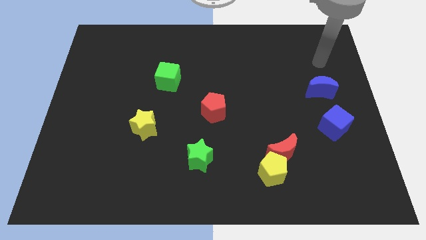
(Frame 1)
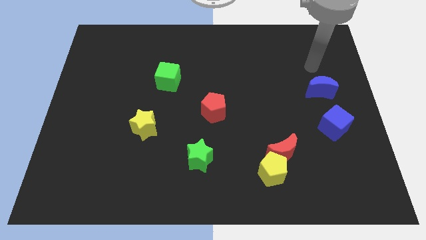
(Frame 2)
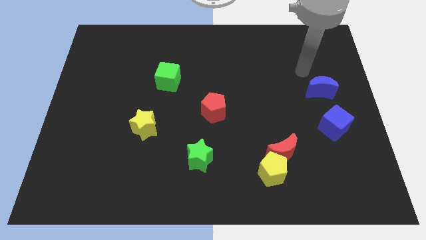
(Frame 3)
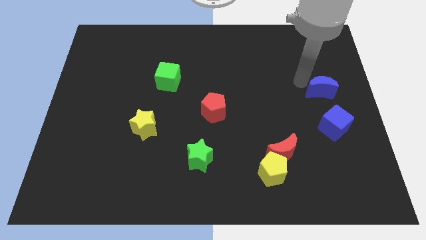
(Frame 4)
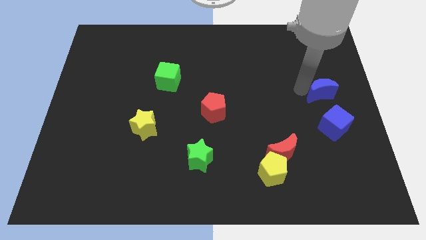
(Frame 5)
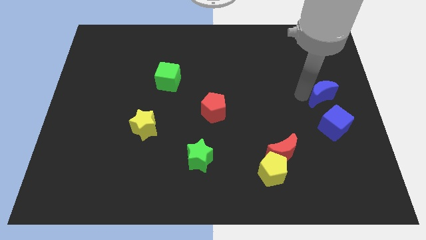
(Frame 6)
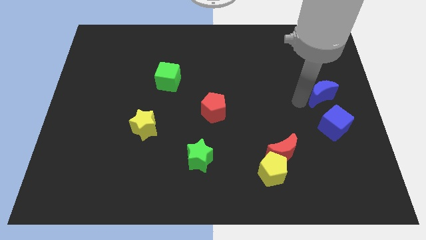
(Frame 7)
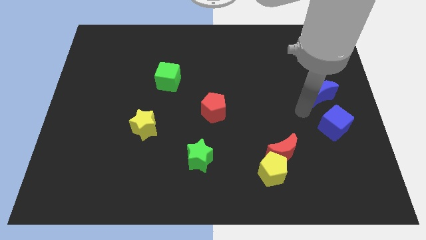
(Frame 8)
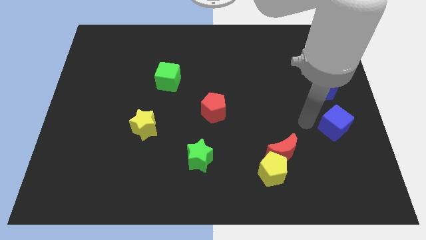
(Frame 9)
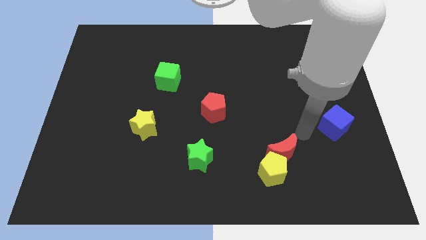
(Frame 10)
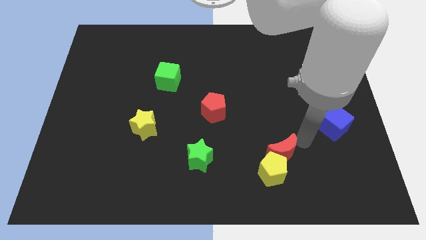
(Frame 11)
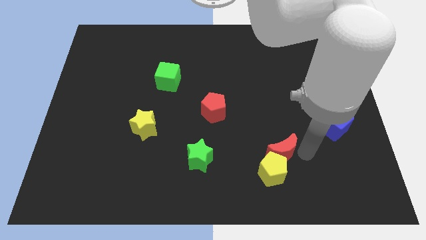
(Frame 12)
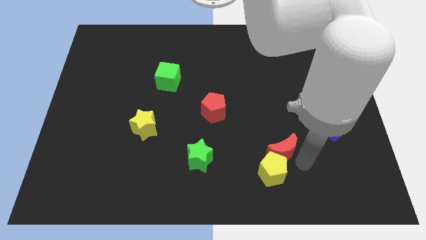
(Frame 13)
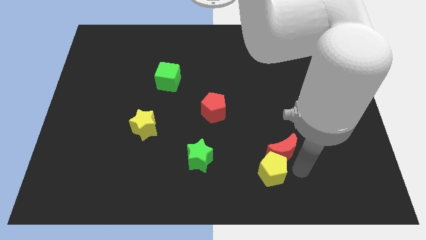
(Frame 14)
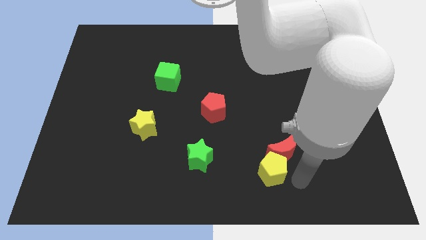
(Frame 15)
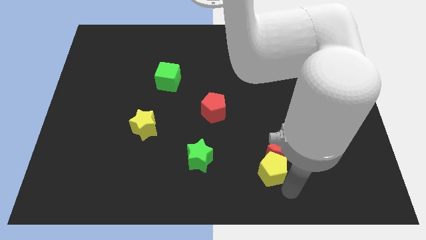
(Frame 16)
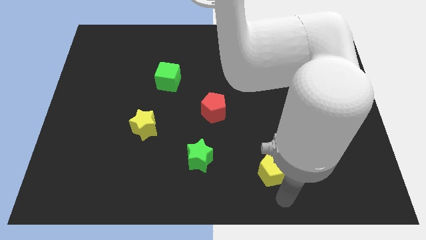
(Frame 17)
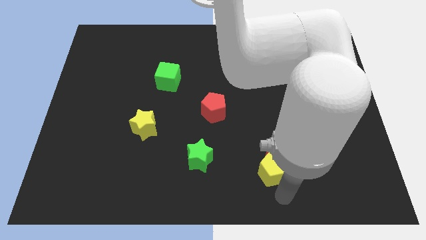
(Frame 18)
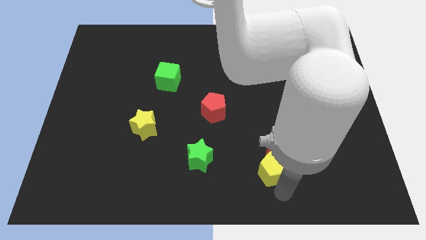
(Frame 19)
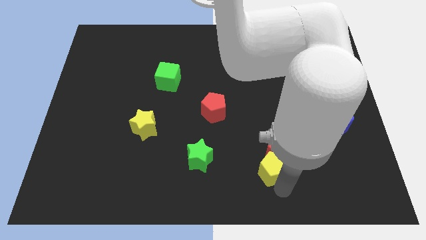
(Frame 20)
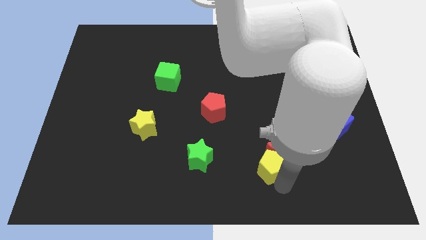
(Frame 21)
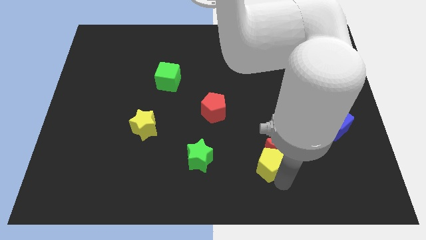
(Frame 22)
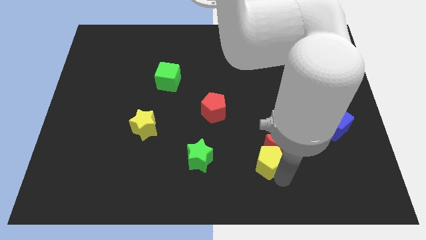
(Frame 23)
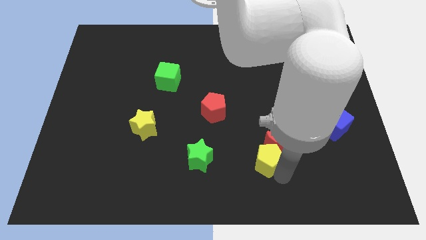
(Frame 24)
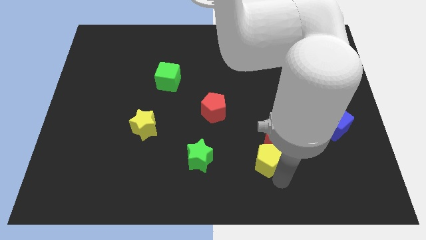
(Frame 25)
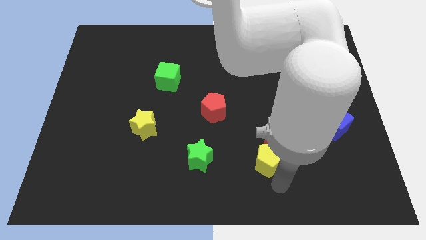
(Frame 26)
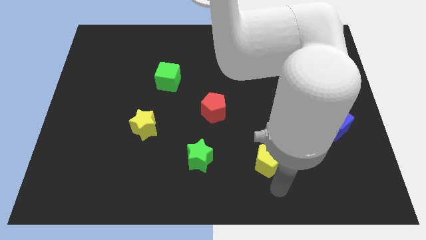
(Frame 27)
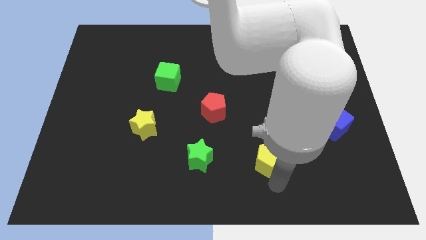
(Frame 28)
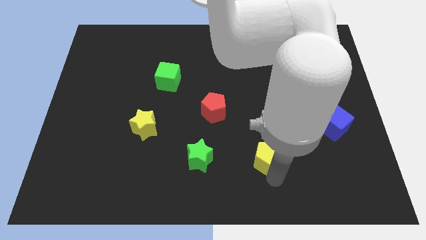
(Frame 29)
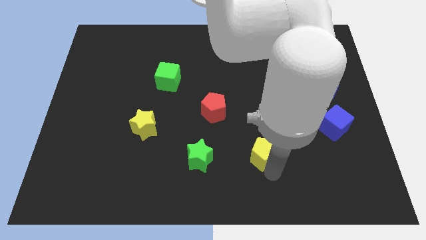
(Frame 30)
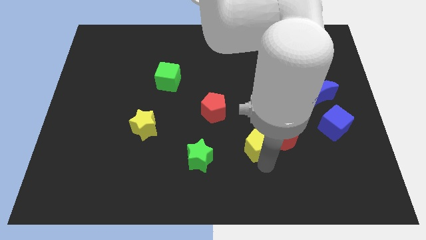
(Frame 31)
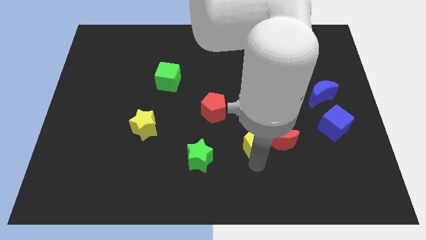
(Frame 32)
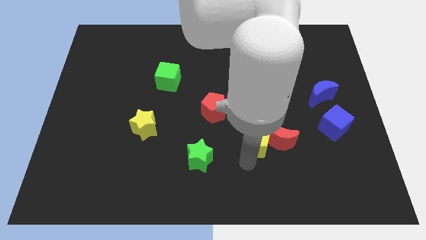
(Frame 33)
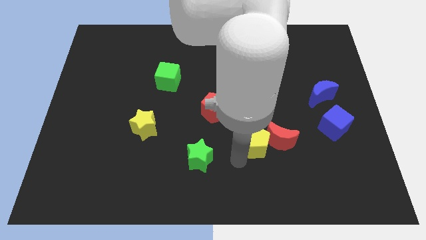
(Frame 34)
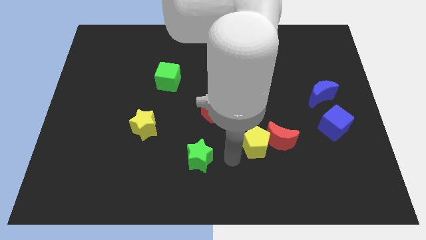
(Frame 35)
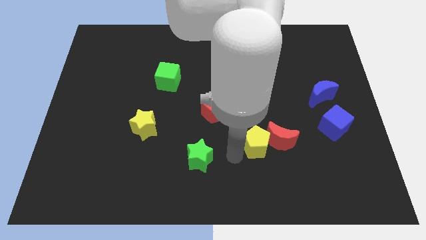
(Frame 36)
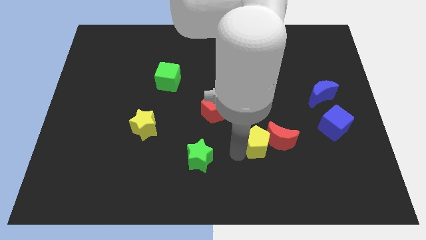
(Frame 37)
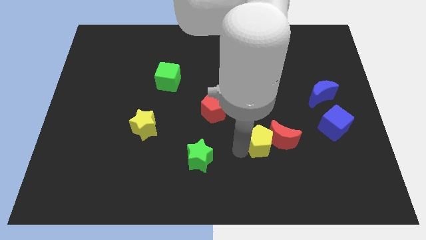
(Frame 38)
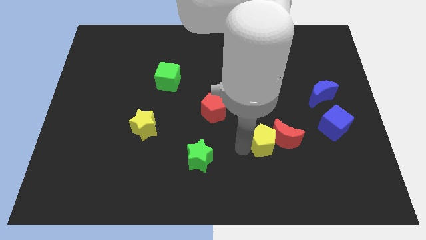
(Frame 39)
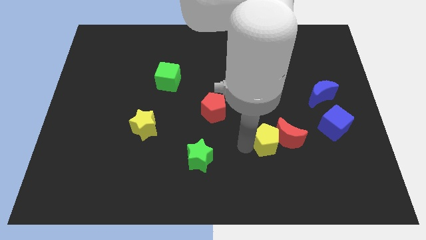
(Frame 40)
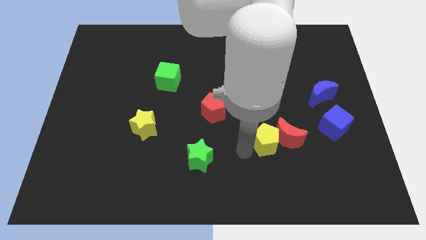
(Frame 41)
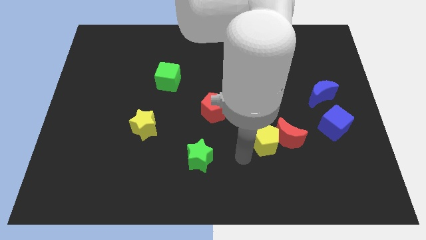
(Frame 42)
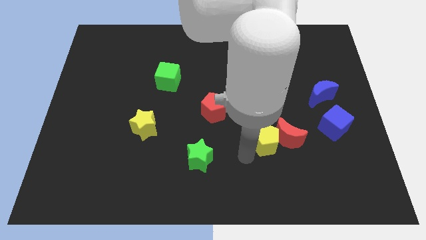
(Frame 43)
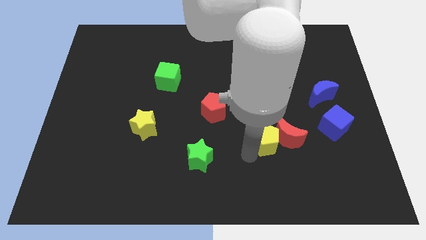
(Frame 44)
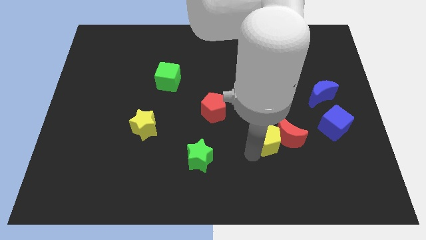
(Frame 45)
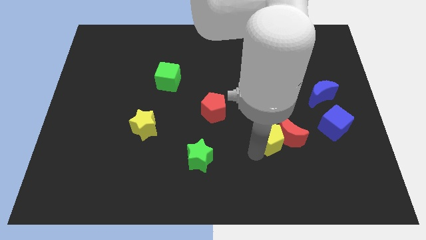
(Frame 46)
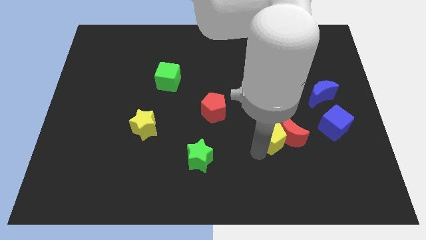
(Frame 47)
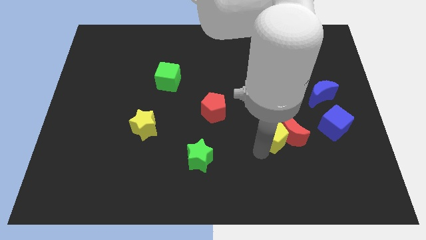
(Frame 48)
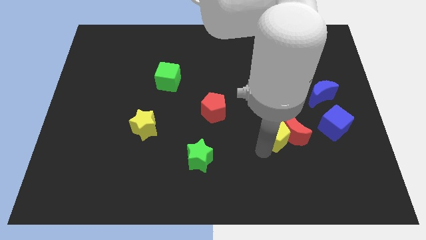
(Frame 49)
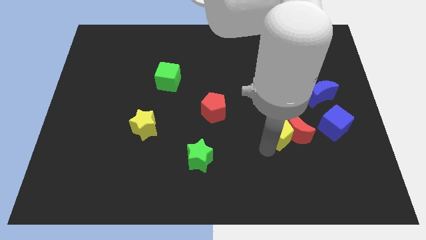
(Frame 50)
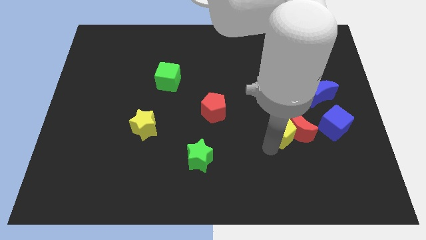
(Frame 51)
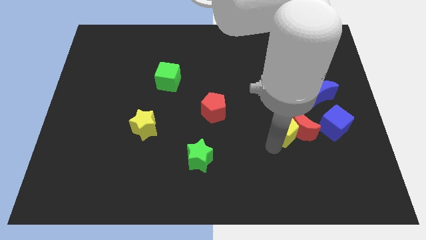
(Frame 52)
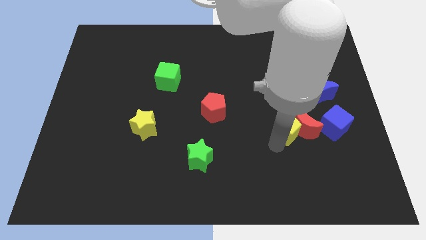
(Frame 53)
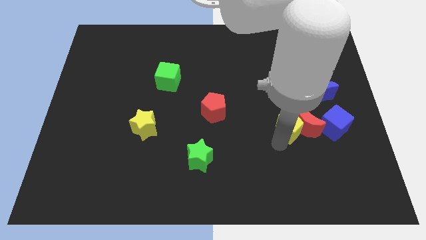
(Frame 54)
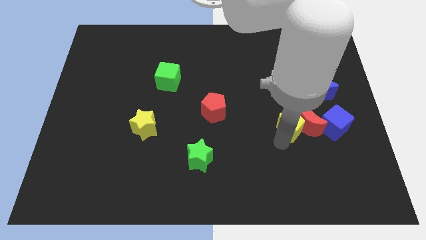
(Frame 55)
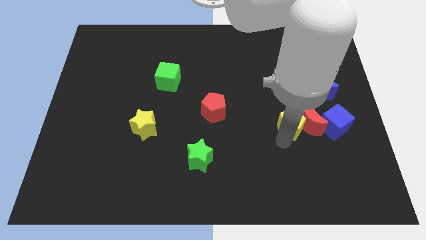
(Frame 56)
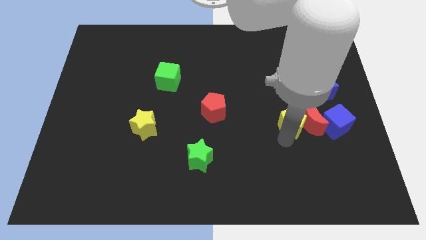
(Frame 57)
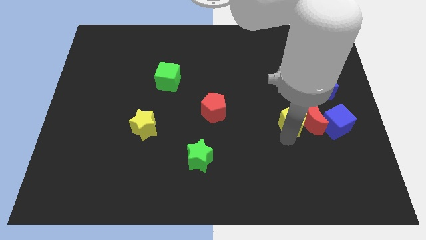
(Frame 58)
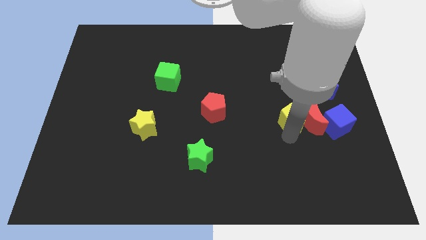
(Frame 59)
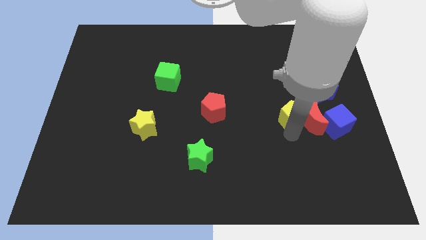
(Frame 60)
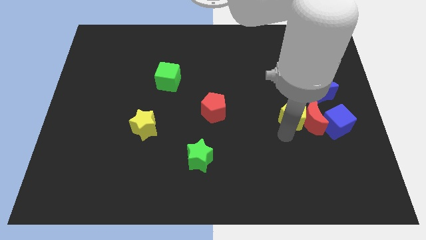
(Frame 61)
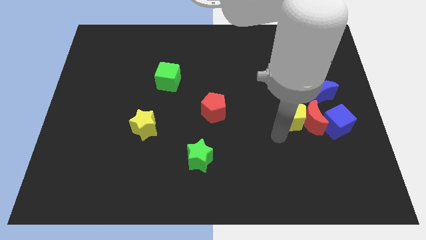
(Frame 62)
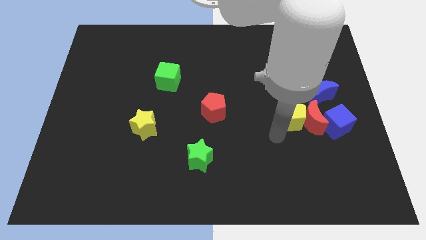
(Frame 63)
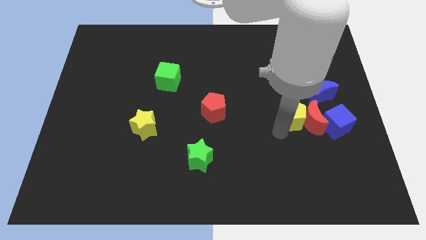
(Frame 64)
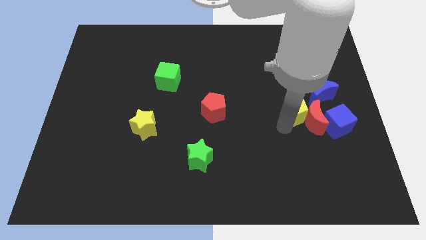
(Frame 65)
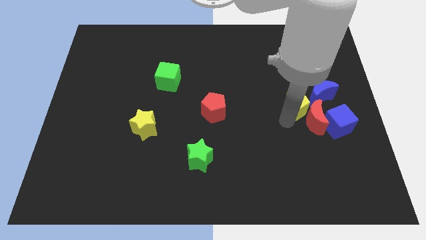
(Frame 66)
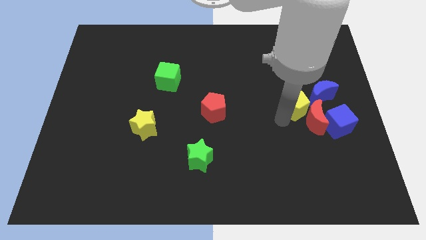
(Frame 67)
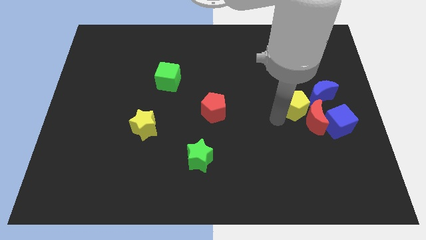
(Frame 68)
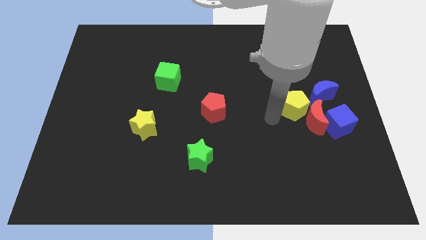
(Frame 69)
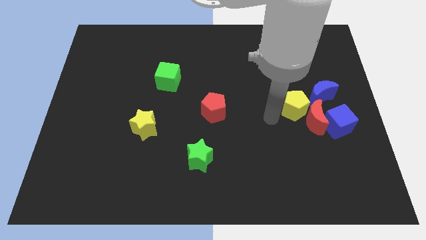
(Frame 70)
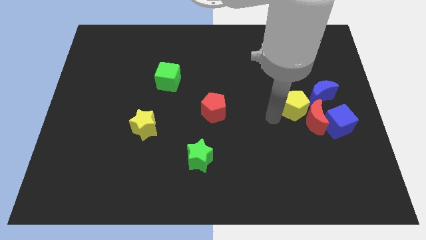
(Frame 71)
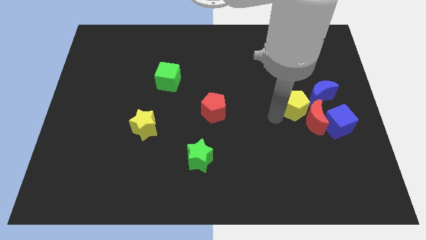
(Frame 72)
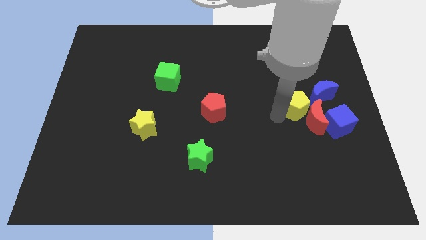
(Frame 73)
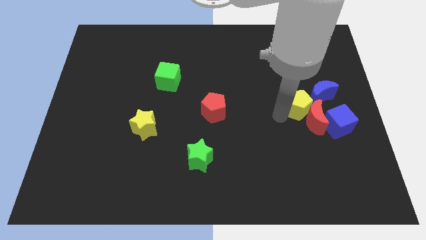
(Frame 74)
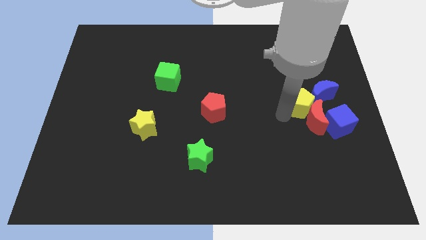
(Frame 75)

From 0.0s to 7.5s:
move the yellow pentagon to the blue moon
